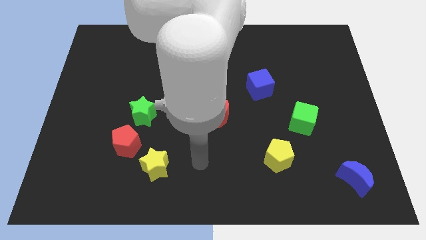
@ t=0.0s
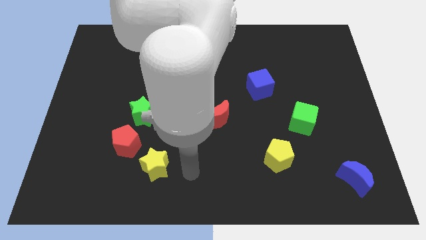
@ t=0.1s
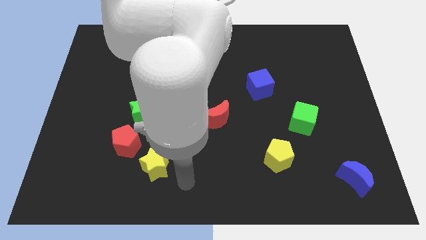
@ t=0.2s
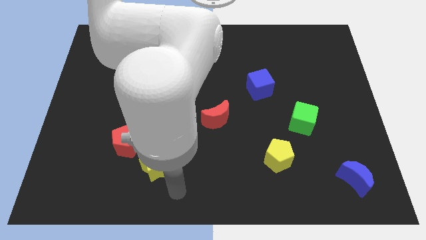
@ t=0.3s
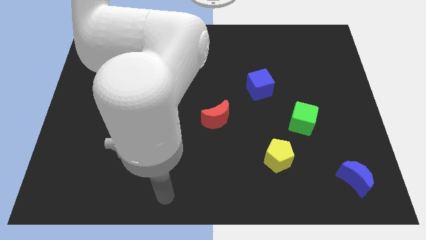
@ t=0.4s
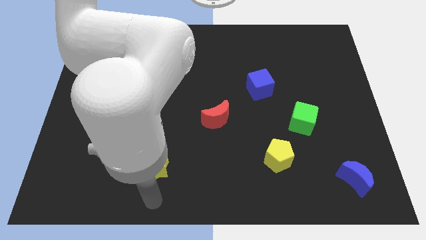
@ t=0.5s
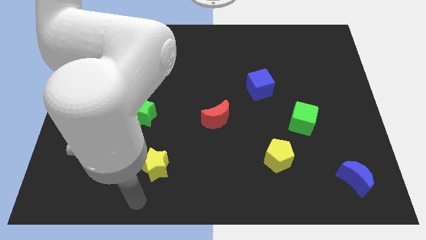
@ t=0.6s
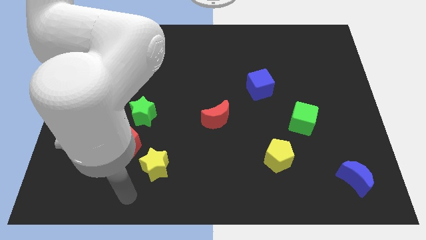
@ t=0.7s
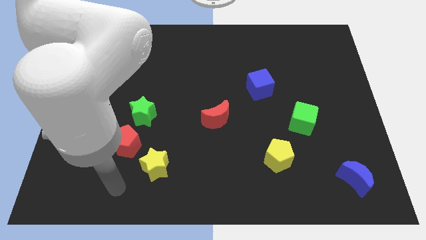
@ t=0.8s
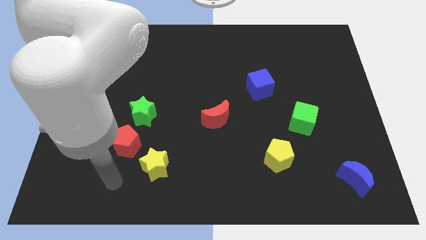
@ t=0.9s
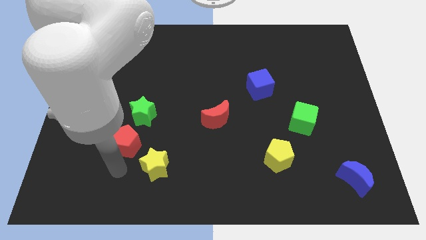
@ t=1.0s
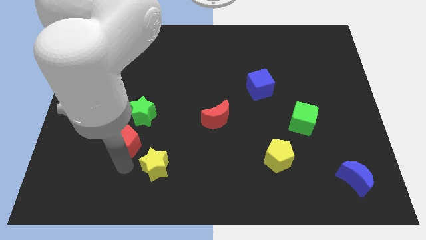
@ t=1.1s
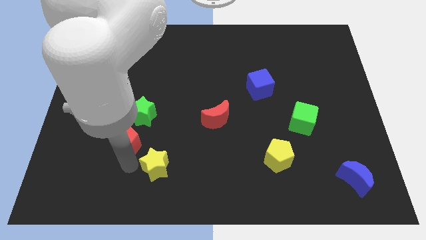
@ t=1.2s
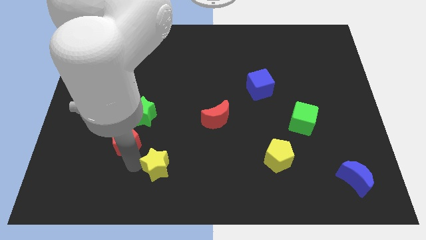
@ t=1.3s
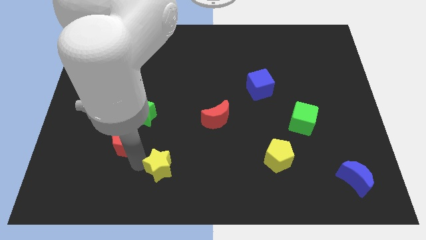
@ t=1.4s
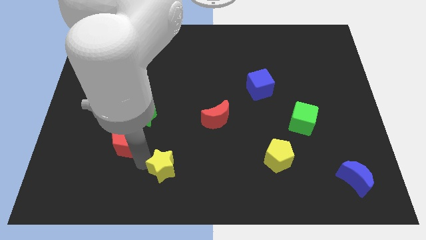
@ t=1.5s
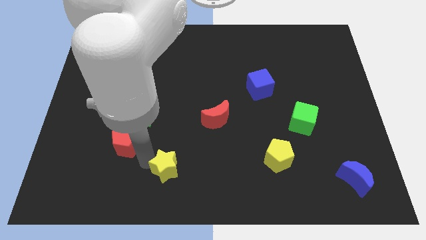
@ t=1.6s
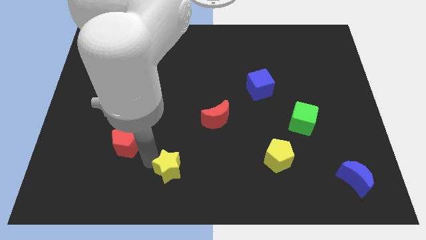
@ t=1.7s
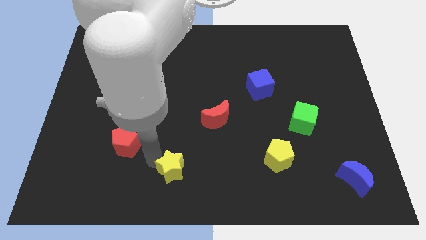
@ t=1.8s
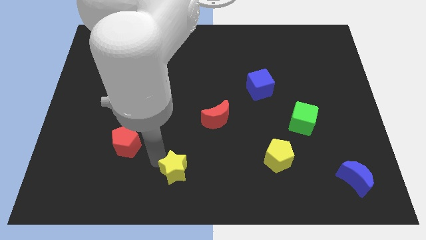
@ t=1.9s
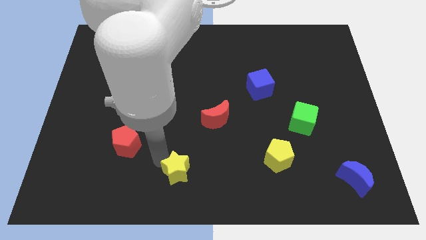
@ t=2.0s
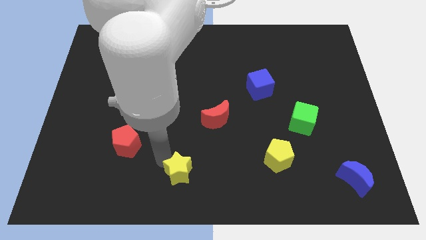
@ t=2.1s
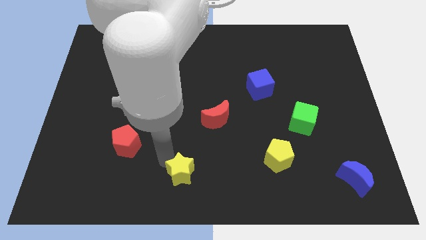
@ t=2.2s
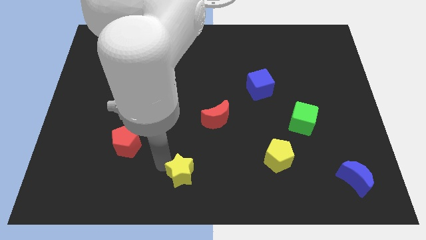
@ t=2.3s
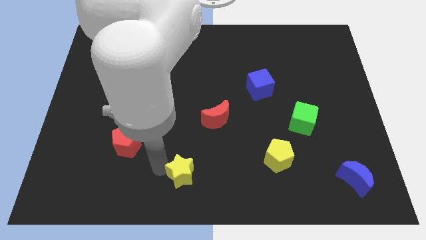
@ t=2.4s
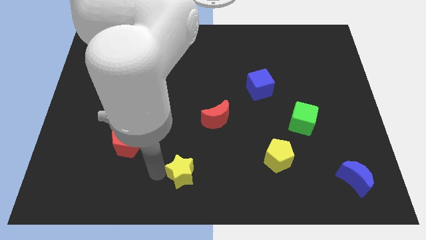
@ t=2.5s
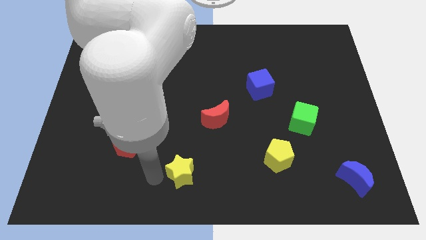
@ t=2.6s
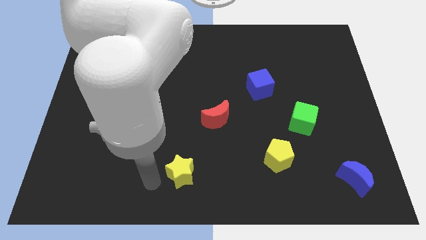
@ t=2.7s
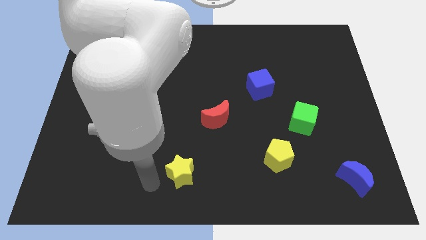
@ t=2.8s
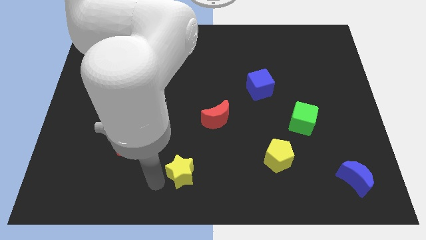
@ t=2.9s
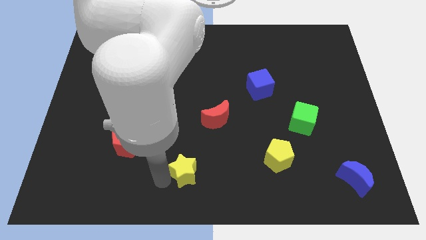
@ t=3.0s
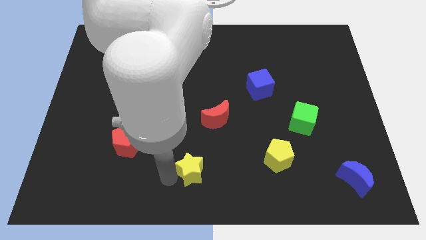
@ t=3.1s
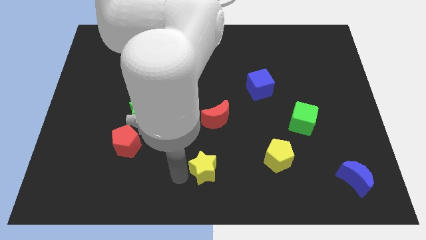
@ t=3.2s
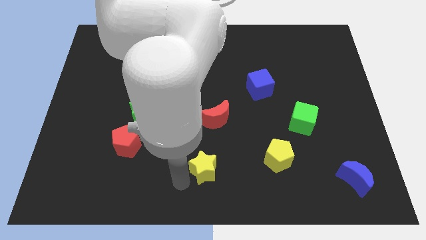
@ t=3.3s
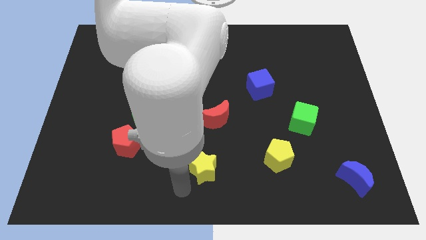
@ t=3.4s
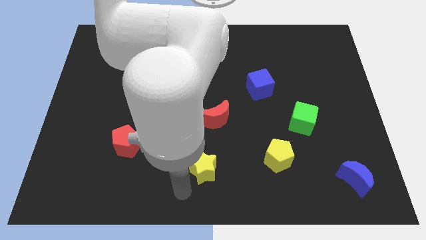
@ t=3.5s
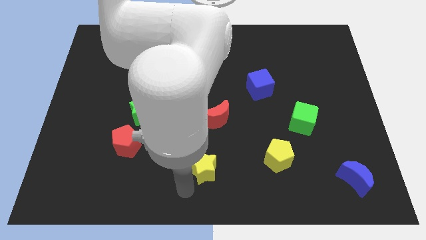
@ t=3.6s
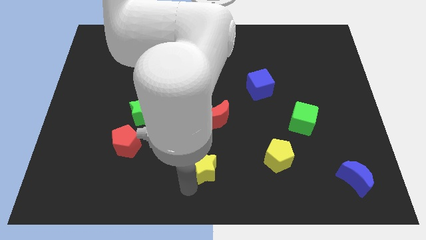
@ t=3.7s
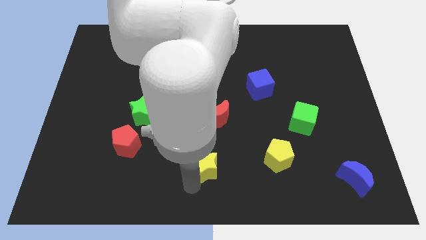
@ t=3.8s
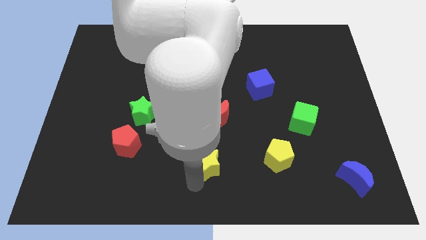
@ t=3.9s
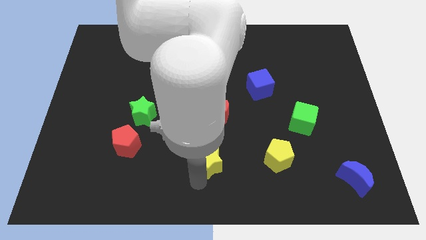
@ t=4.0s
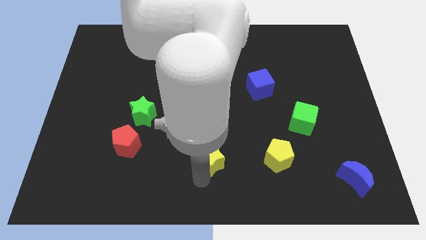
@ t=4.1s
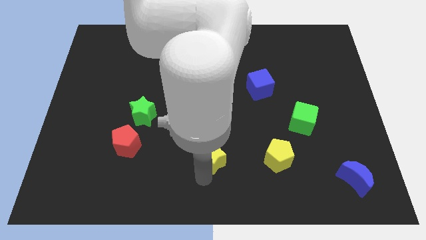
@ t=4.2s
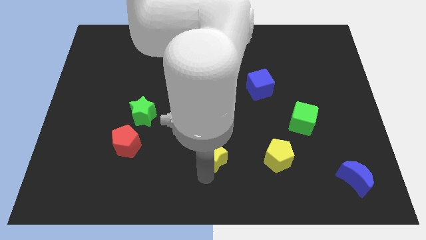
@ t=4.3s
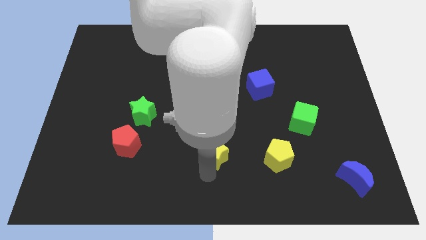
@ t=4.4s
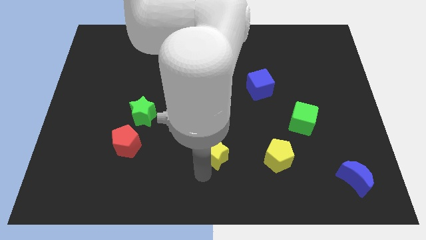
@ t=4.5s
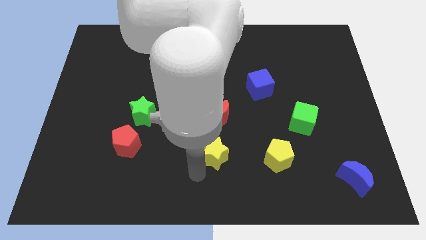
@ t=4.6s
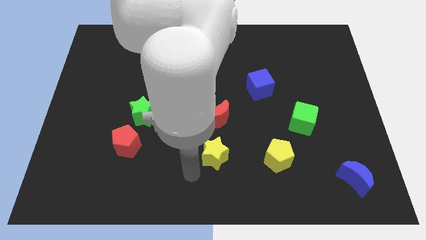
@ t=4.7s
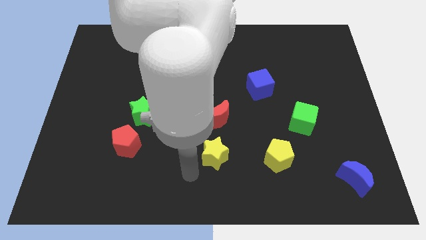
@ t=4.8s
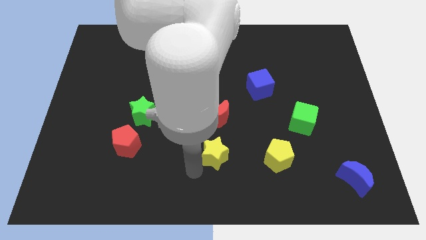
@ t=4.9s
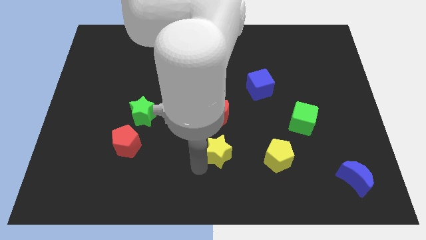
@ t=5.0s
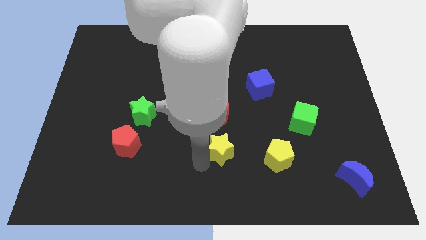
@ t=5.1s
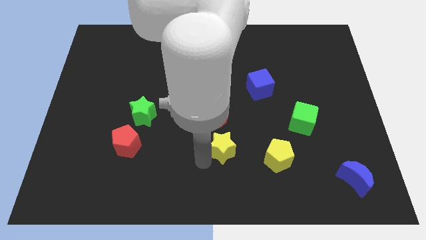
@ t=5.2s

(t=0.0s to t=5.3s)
push the yellow star diagonally down and to the right of the red moon

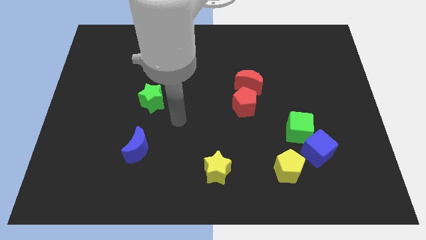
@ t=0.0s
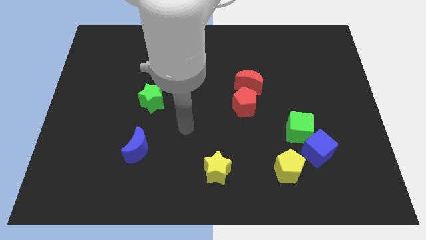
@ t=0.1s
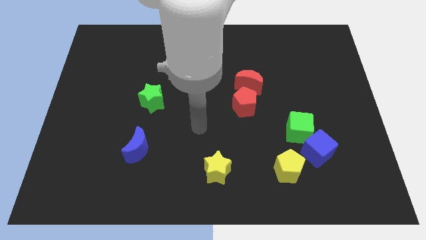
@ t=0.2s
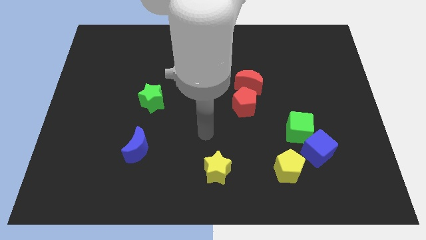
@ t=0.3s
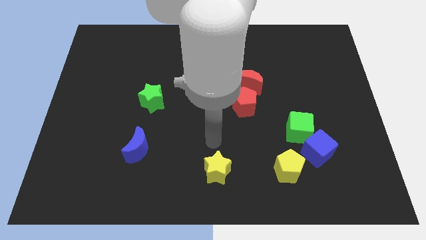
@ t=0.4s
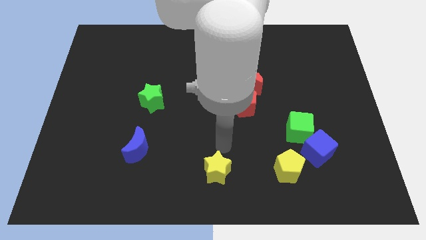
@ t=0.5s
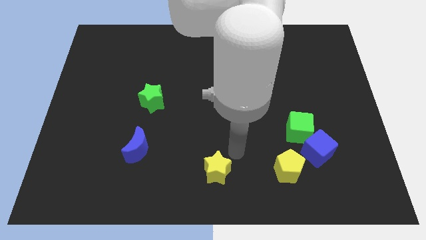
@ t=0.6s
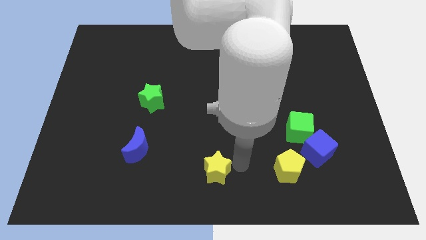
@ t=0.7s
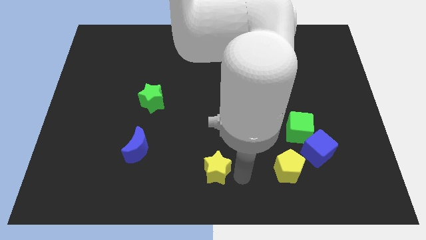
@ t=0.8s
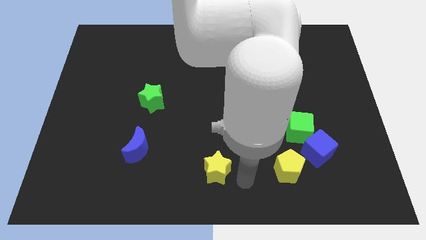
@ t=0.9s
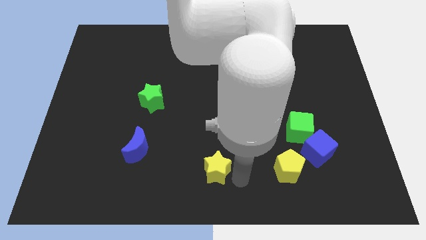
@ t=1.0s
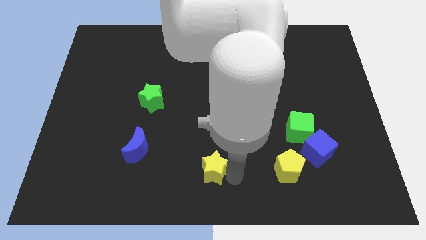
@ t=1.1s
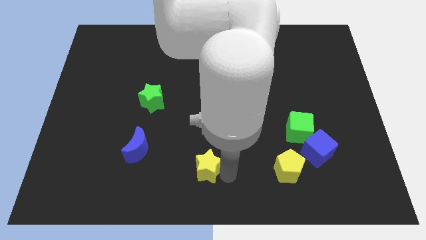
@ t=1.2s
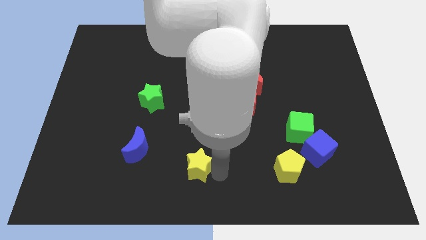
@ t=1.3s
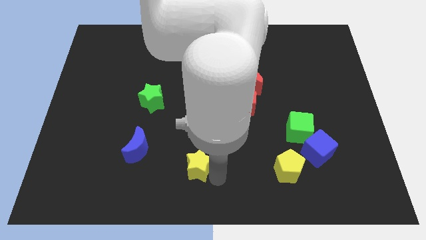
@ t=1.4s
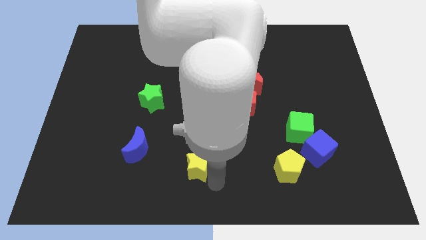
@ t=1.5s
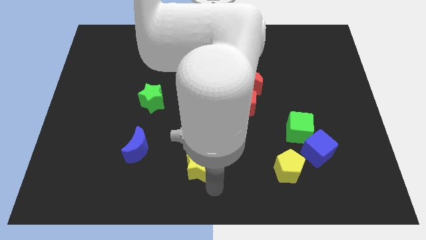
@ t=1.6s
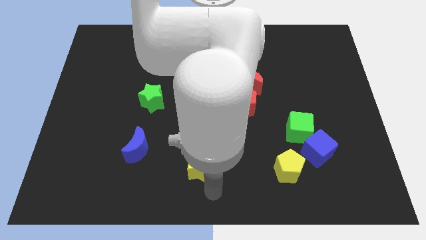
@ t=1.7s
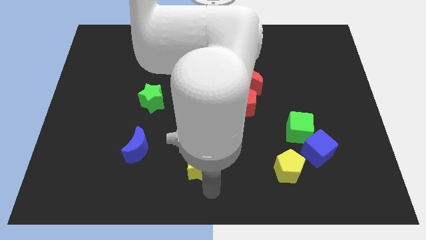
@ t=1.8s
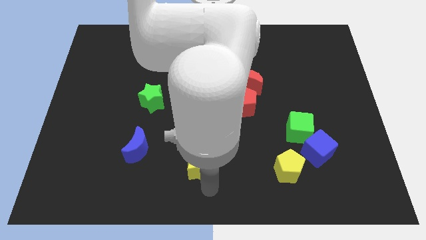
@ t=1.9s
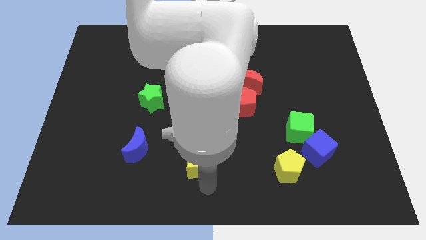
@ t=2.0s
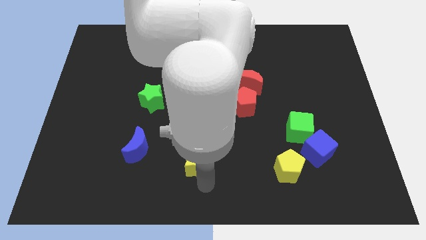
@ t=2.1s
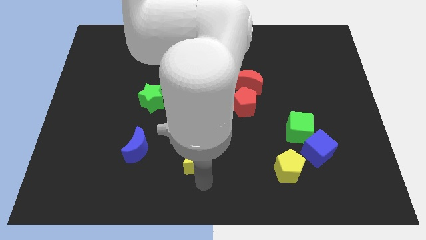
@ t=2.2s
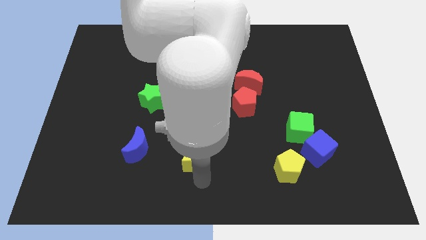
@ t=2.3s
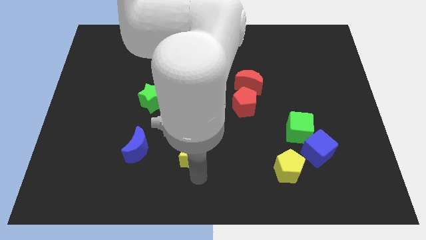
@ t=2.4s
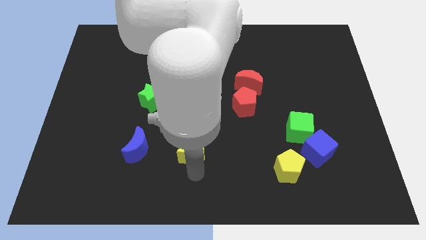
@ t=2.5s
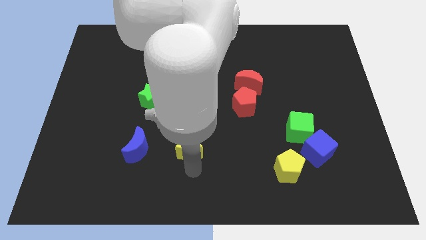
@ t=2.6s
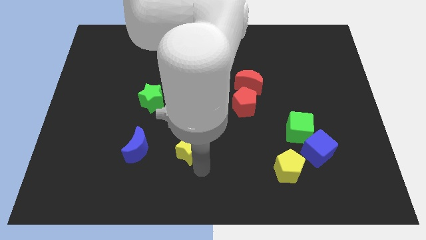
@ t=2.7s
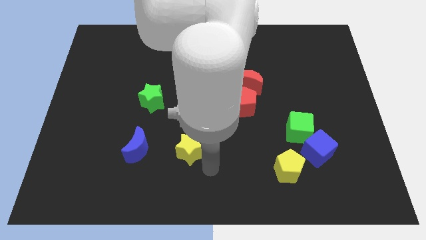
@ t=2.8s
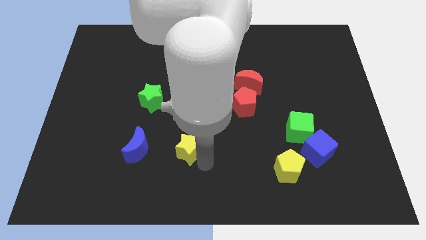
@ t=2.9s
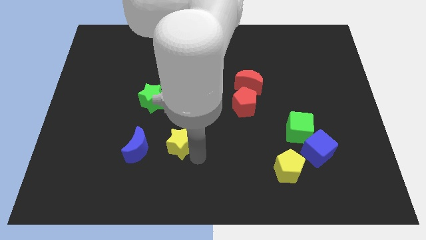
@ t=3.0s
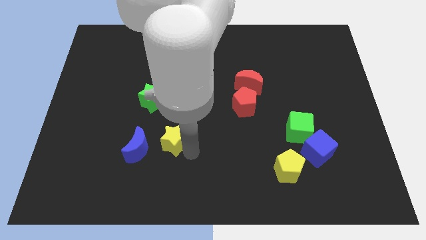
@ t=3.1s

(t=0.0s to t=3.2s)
move the yellow star diagonally up and to the right of the blue moon
